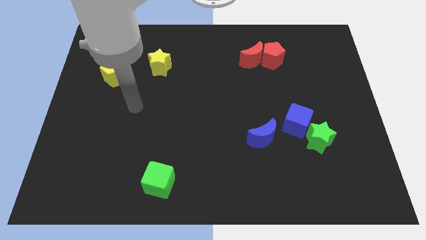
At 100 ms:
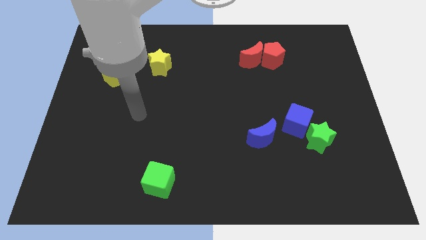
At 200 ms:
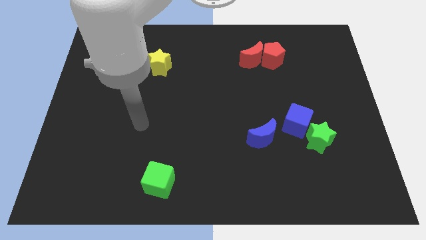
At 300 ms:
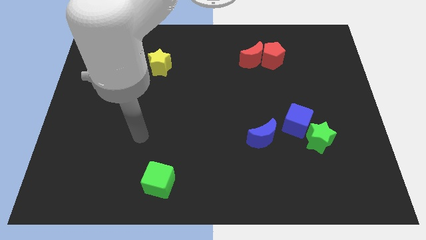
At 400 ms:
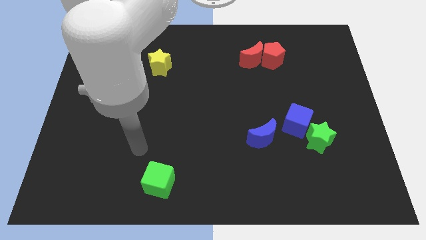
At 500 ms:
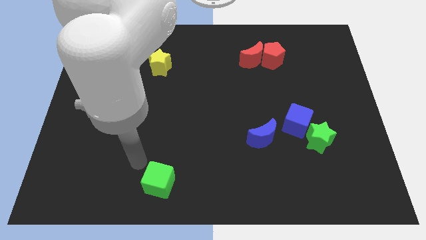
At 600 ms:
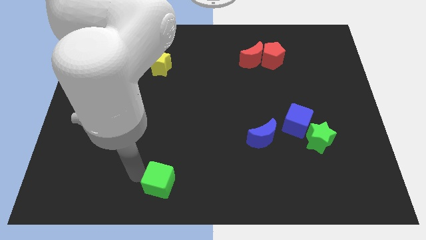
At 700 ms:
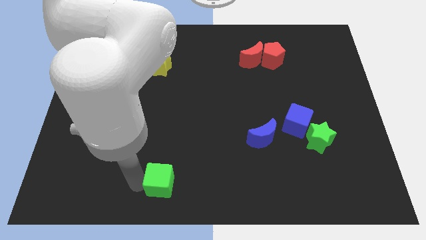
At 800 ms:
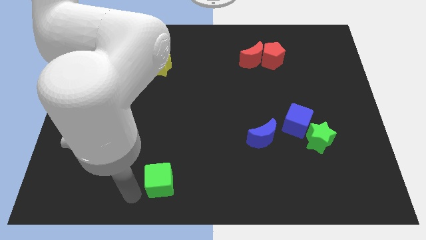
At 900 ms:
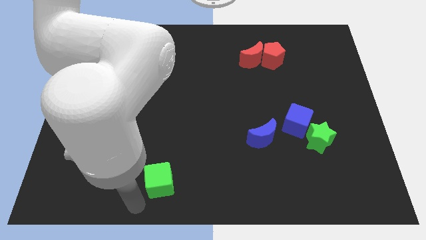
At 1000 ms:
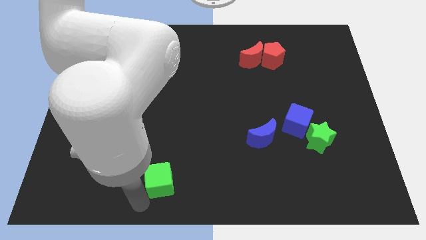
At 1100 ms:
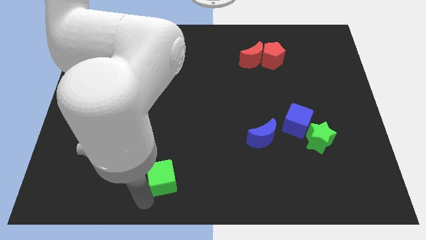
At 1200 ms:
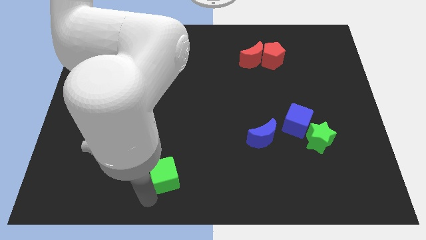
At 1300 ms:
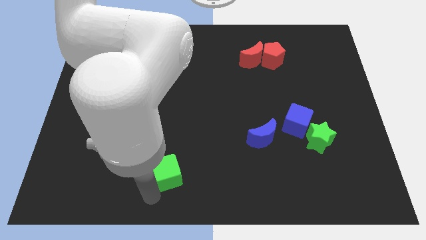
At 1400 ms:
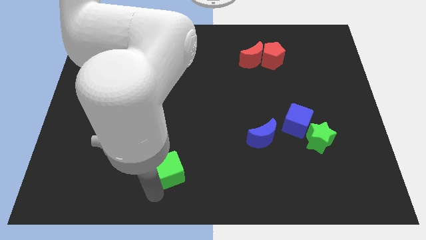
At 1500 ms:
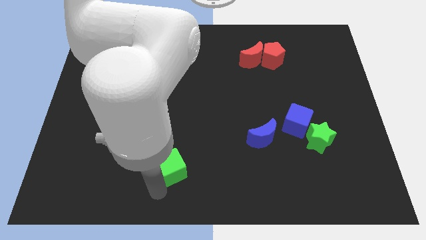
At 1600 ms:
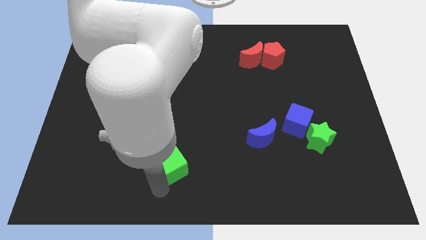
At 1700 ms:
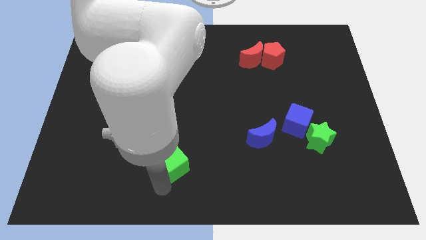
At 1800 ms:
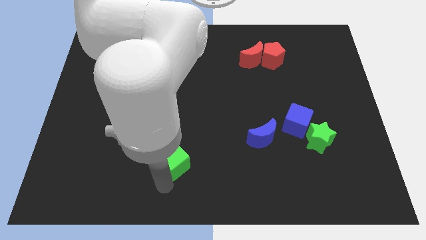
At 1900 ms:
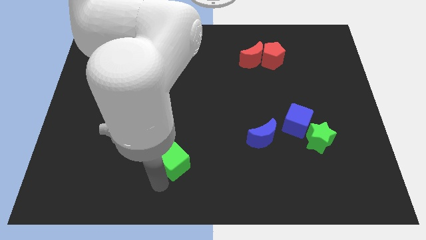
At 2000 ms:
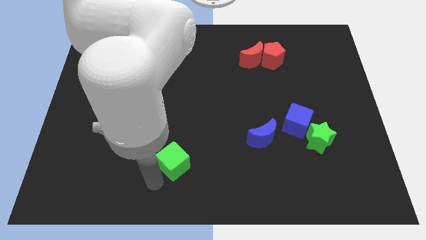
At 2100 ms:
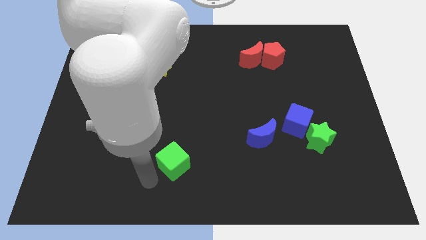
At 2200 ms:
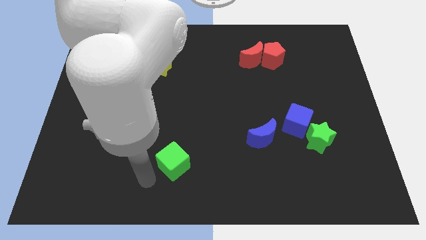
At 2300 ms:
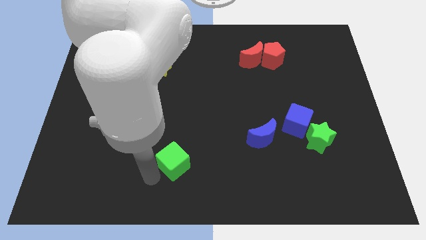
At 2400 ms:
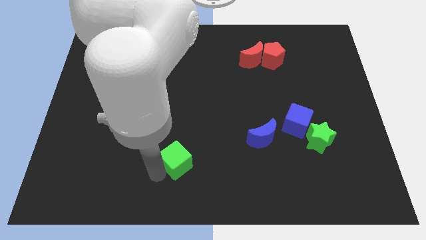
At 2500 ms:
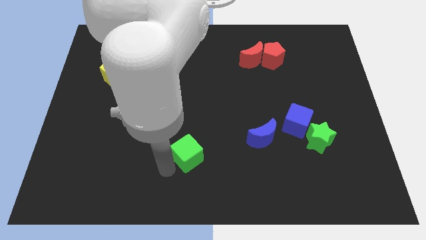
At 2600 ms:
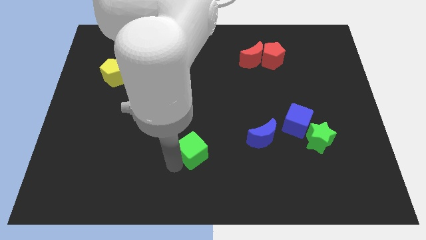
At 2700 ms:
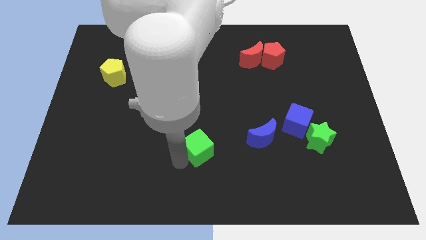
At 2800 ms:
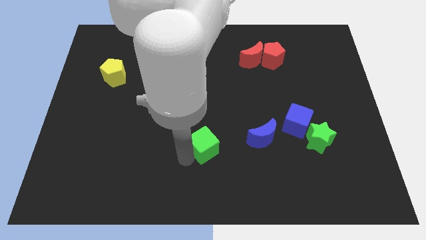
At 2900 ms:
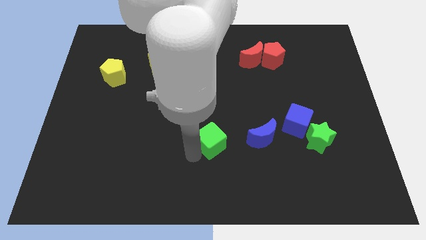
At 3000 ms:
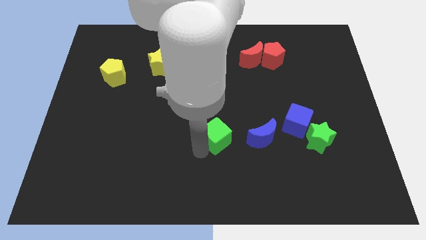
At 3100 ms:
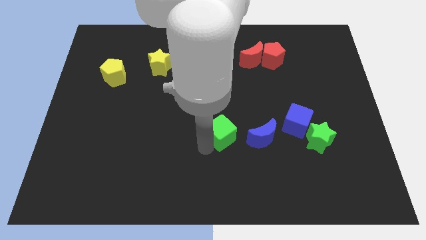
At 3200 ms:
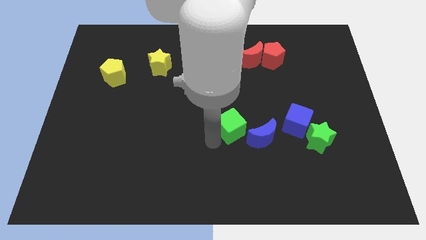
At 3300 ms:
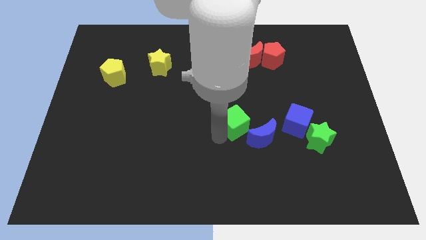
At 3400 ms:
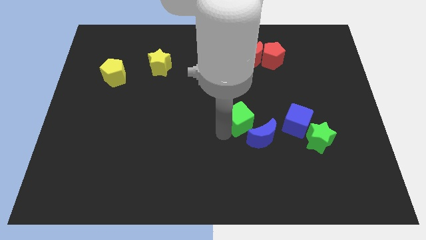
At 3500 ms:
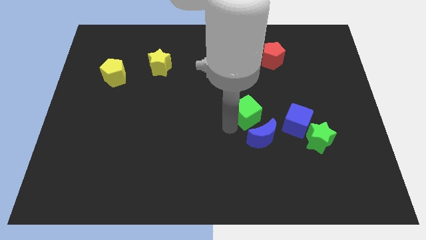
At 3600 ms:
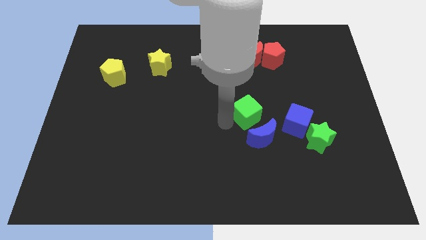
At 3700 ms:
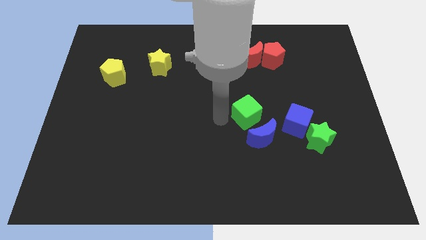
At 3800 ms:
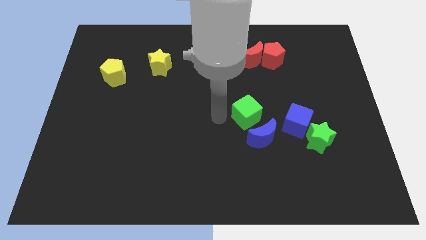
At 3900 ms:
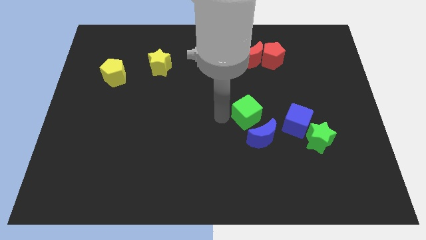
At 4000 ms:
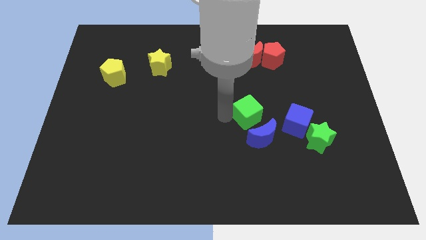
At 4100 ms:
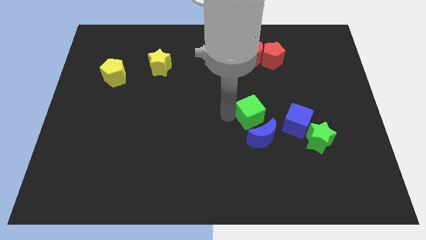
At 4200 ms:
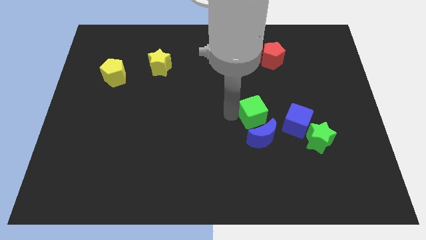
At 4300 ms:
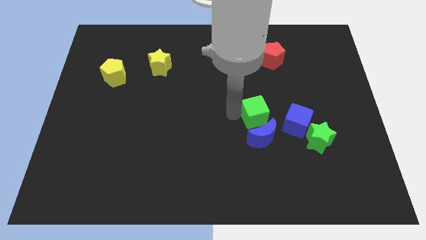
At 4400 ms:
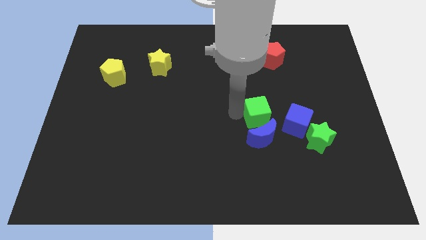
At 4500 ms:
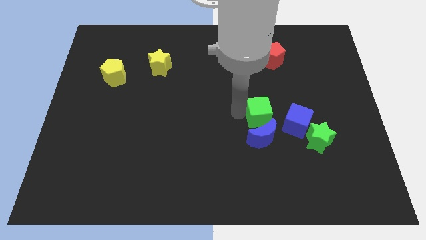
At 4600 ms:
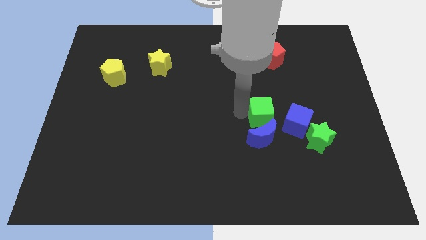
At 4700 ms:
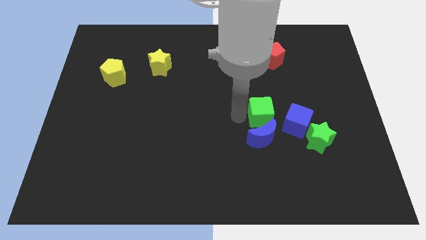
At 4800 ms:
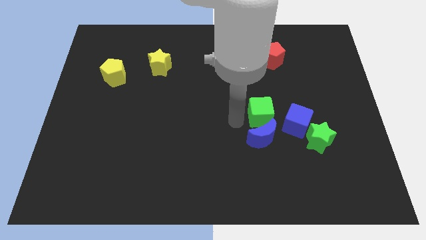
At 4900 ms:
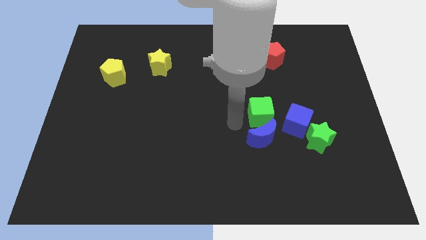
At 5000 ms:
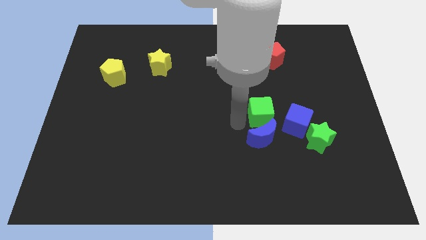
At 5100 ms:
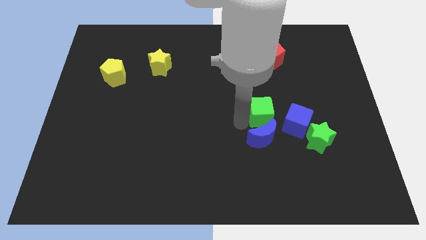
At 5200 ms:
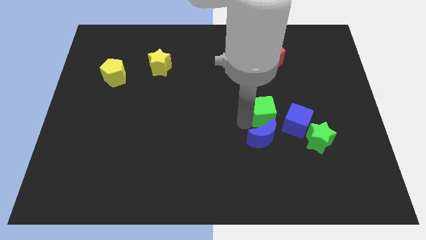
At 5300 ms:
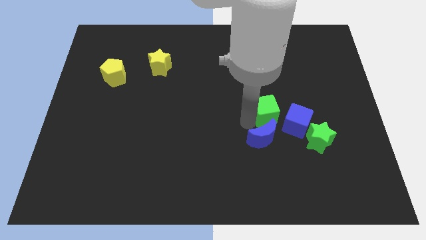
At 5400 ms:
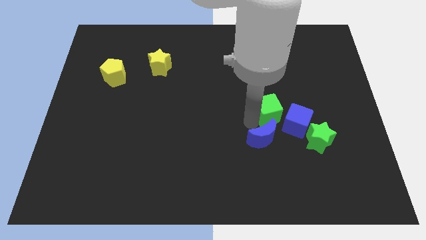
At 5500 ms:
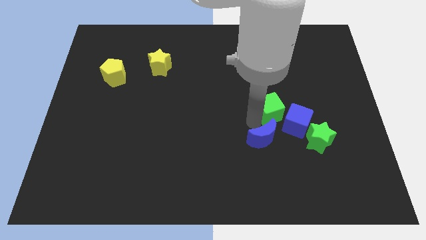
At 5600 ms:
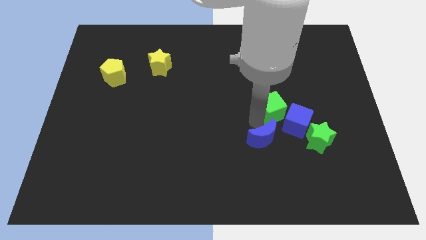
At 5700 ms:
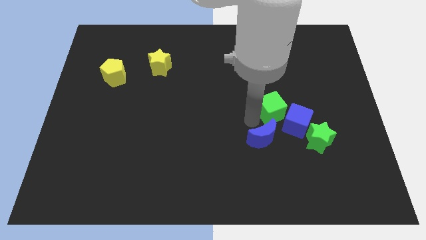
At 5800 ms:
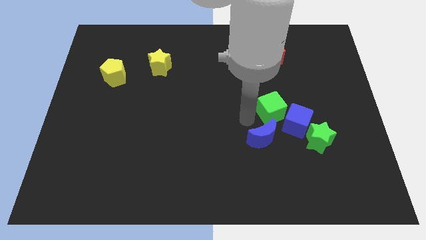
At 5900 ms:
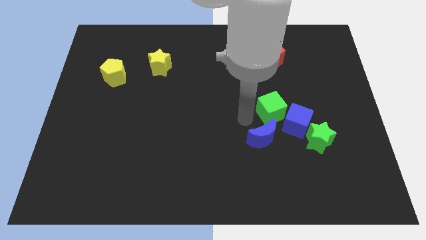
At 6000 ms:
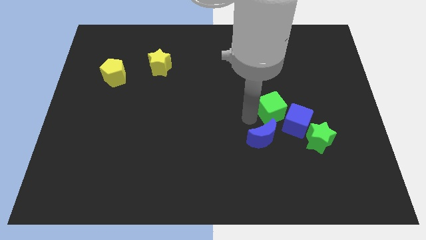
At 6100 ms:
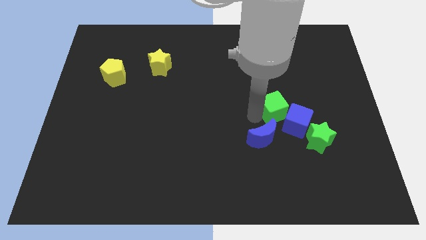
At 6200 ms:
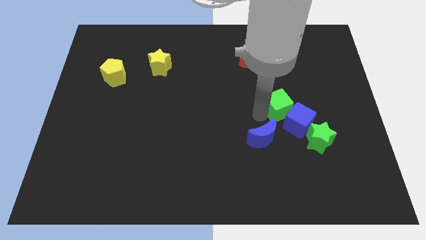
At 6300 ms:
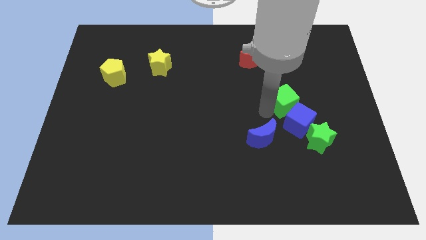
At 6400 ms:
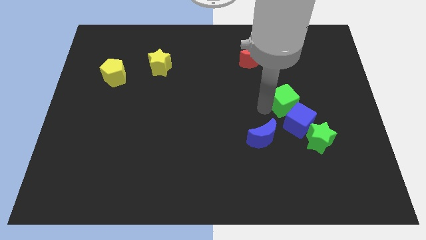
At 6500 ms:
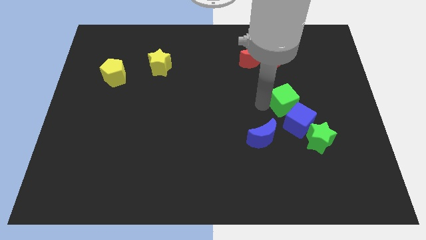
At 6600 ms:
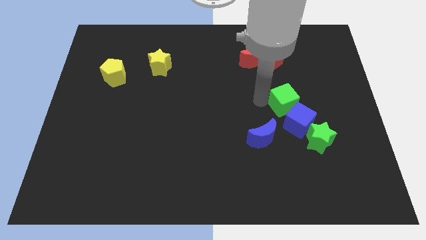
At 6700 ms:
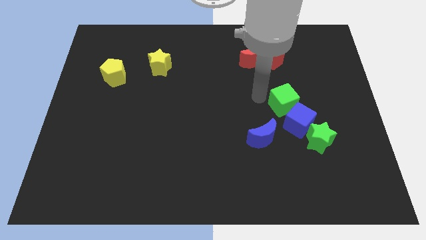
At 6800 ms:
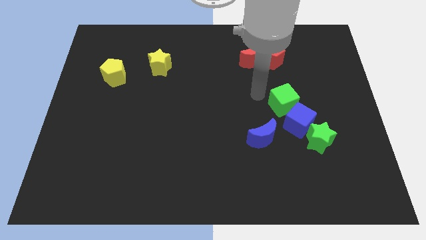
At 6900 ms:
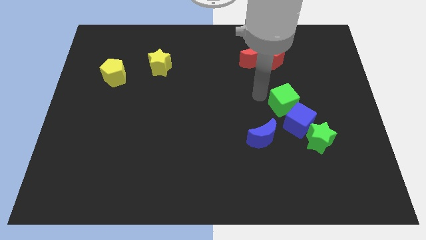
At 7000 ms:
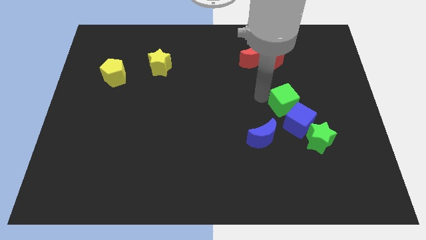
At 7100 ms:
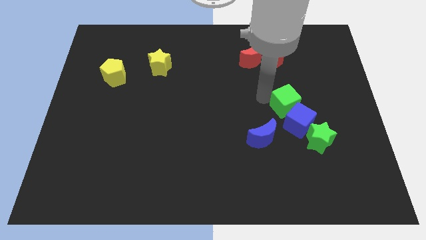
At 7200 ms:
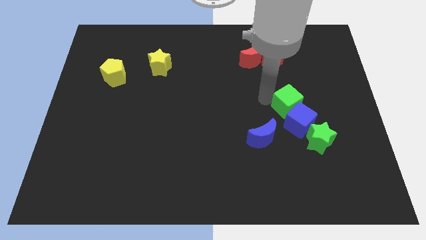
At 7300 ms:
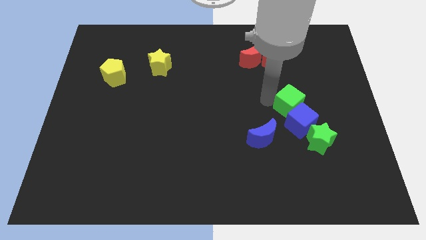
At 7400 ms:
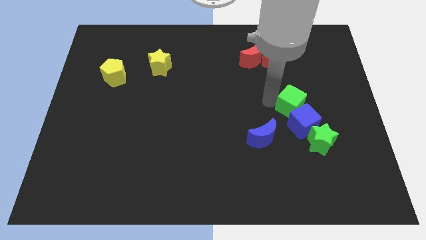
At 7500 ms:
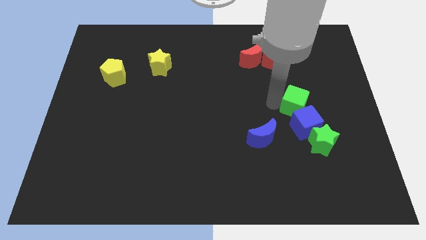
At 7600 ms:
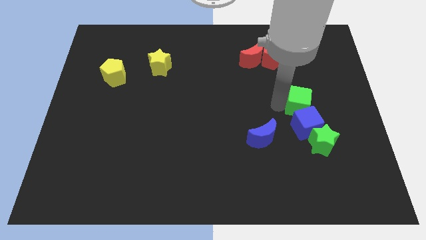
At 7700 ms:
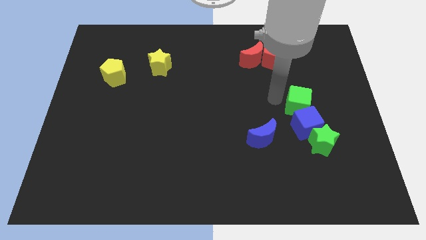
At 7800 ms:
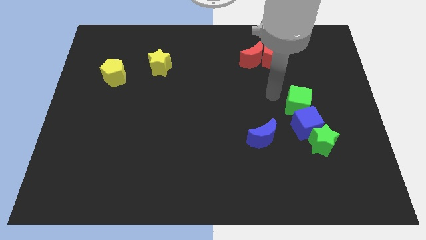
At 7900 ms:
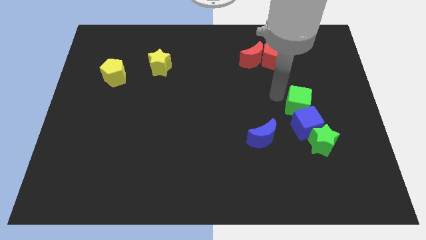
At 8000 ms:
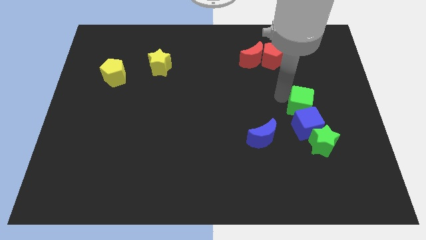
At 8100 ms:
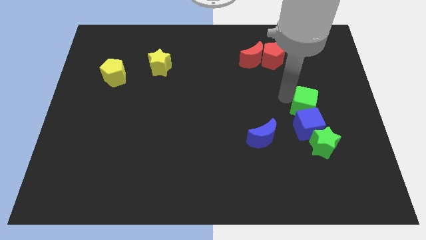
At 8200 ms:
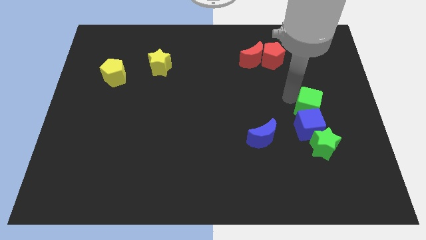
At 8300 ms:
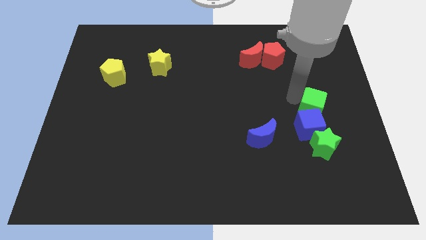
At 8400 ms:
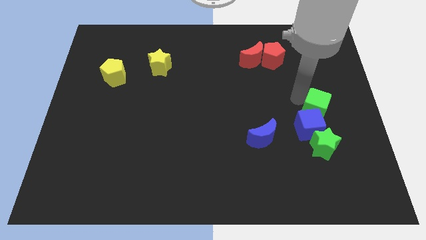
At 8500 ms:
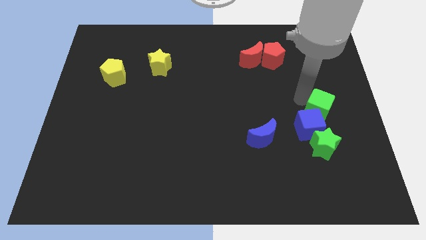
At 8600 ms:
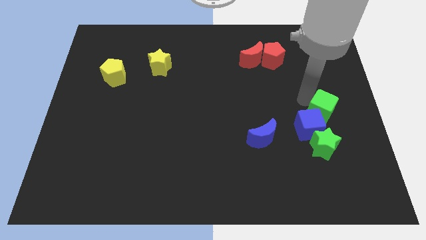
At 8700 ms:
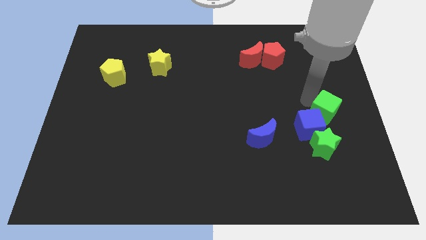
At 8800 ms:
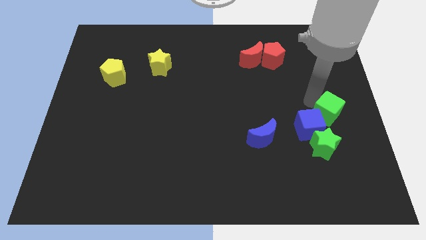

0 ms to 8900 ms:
move the green cube to the top right of the green star
